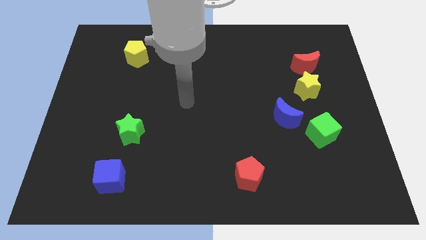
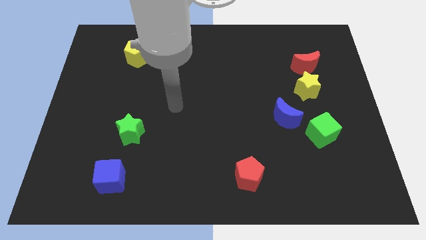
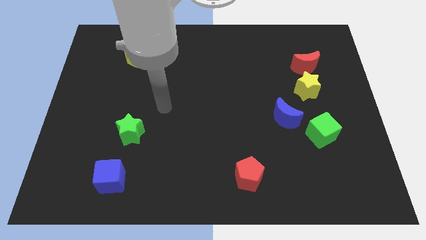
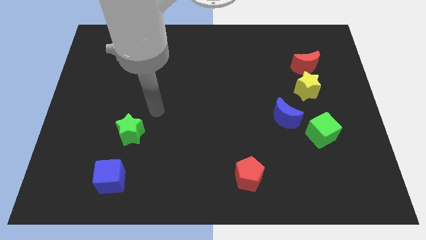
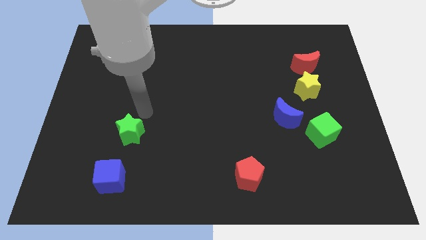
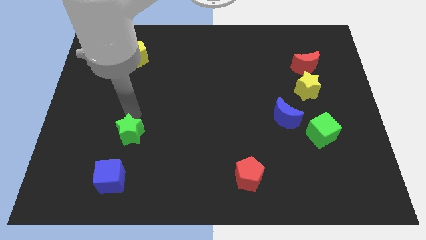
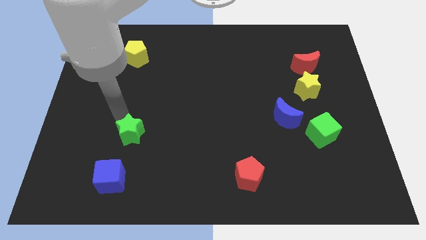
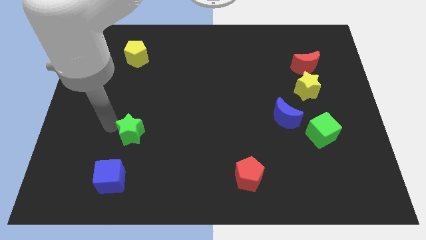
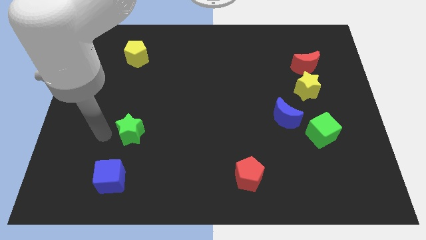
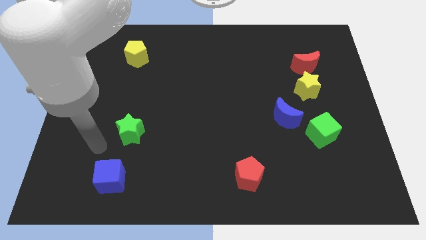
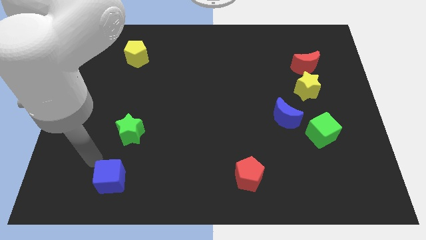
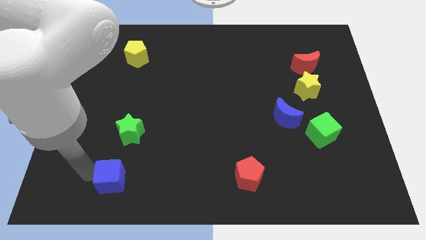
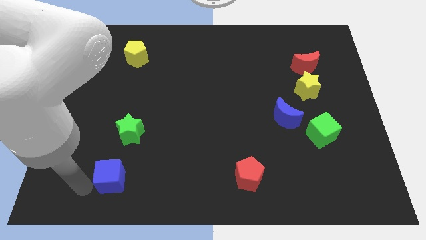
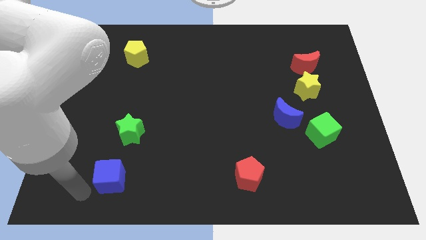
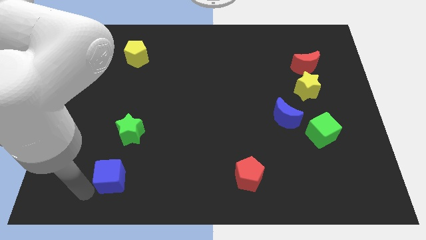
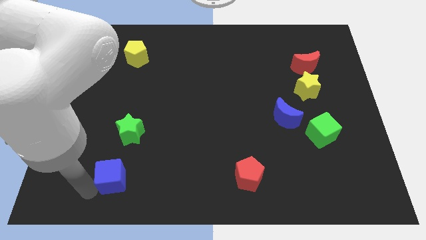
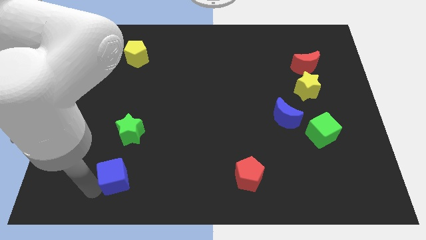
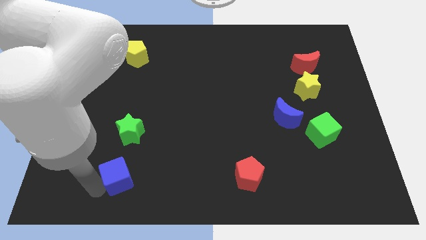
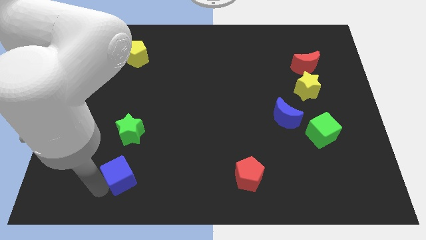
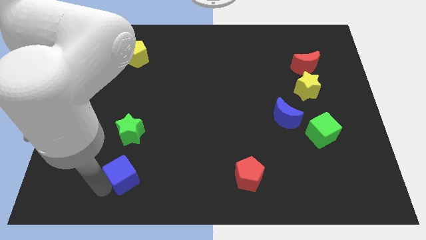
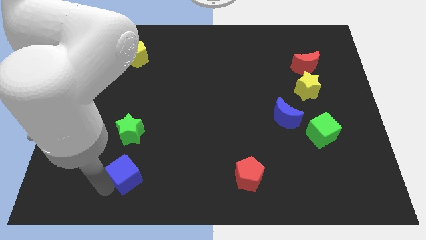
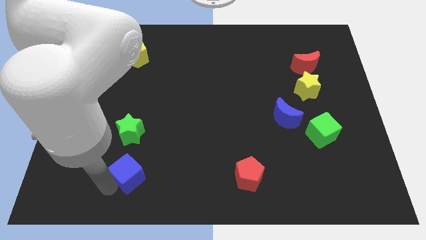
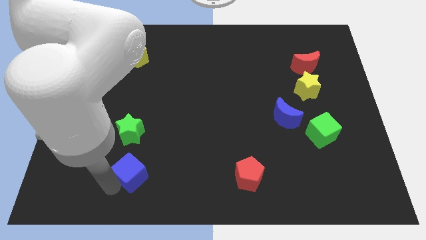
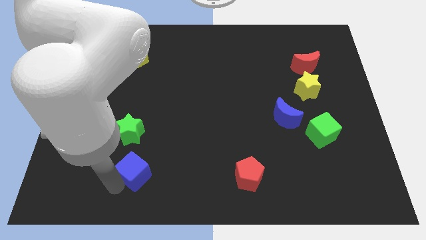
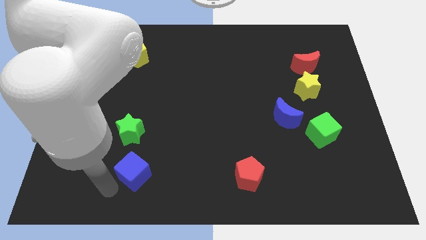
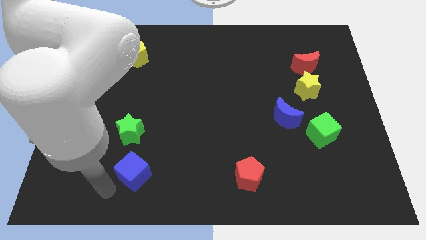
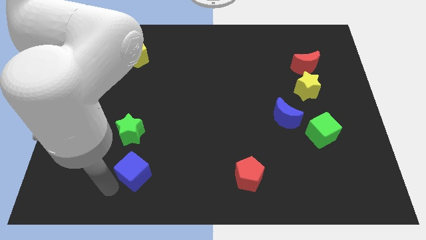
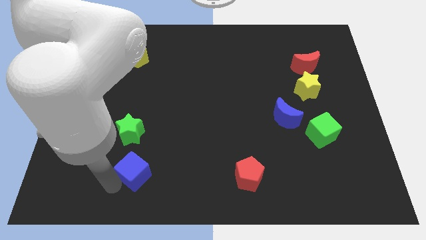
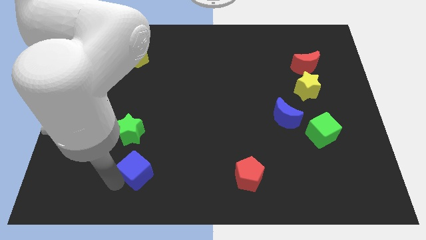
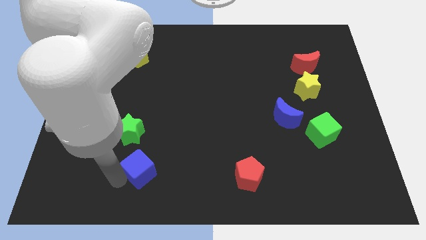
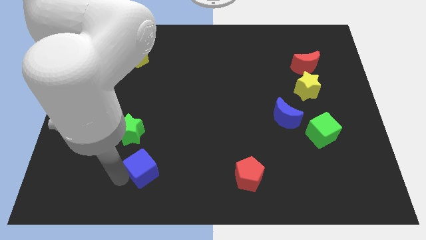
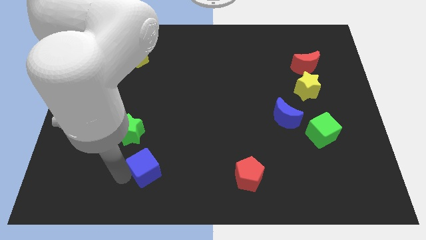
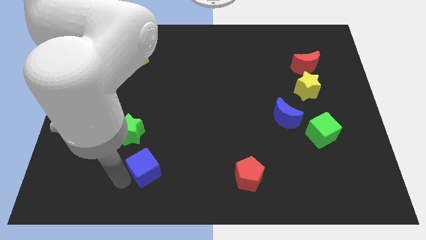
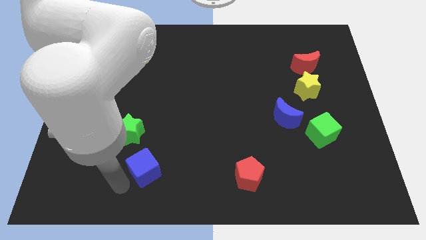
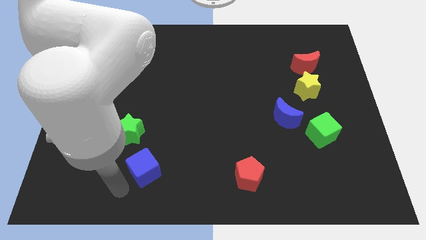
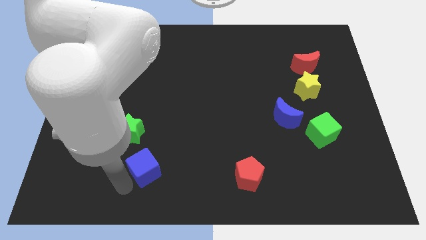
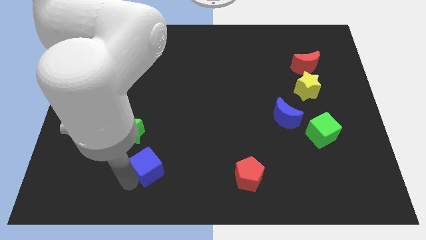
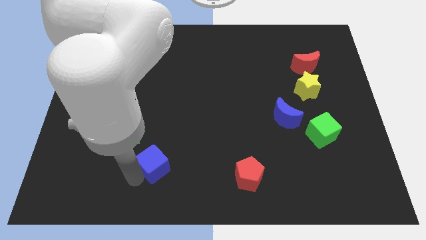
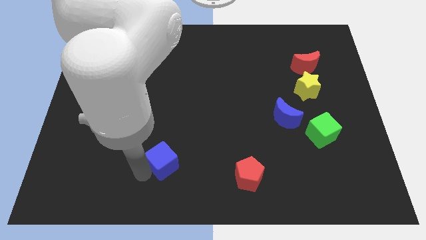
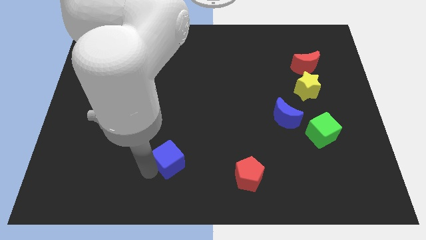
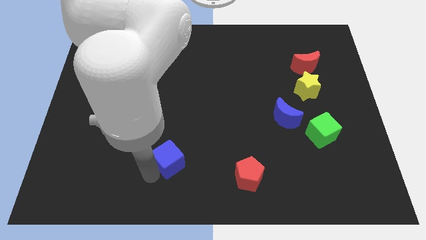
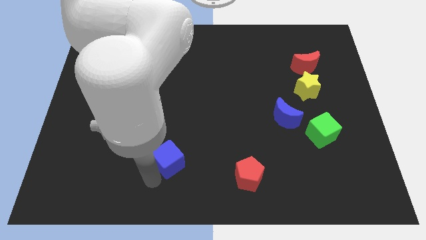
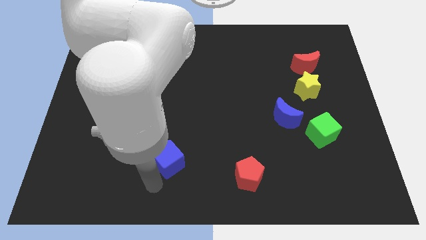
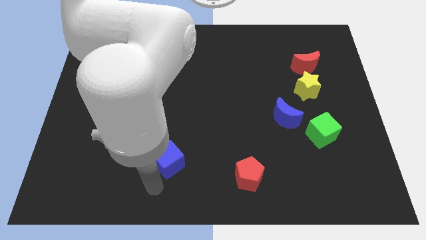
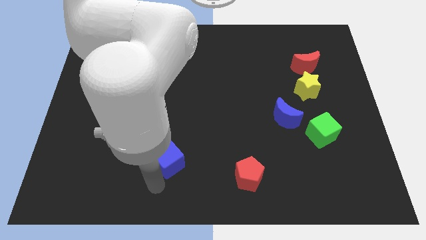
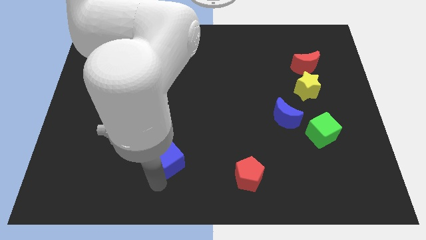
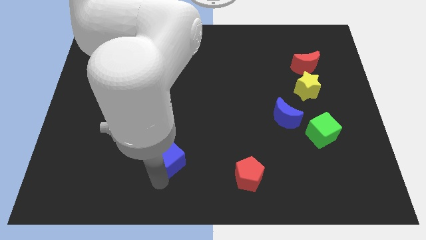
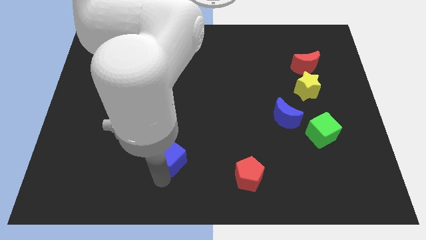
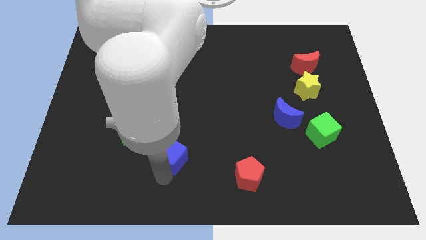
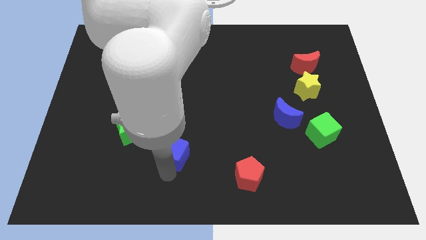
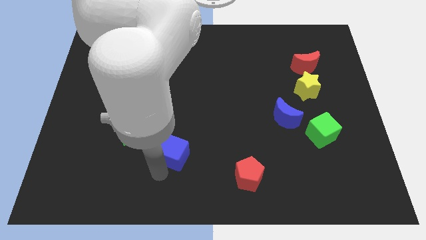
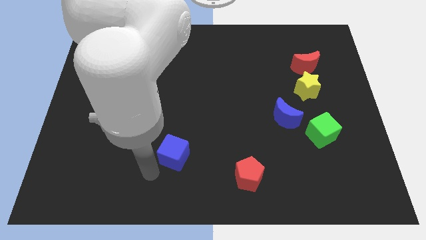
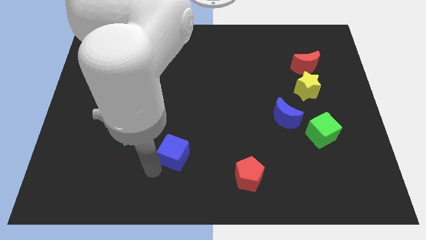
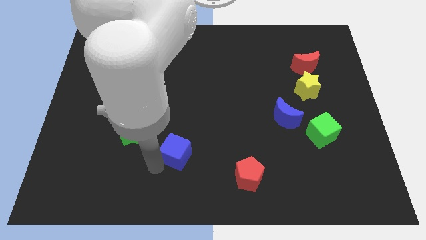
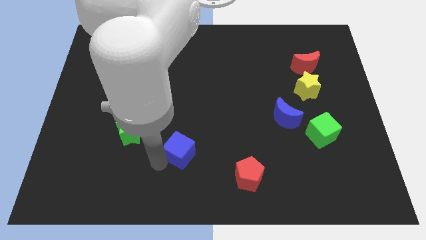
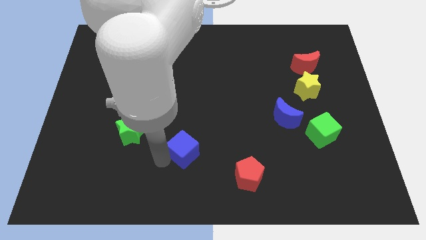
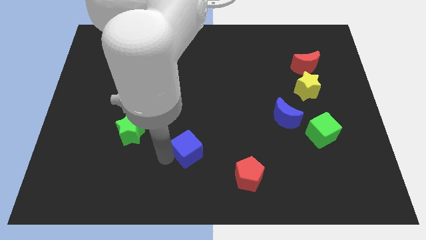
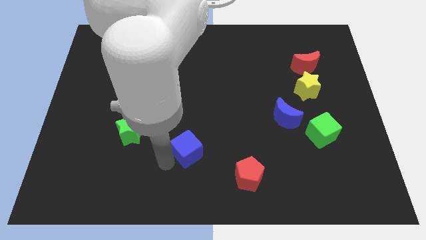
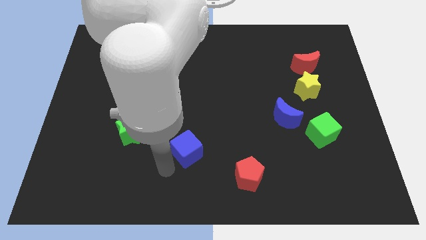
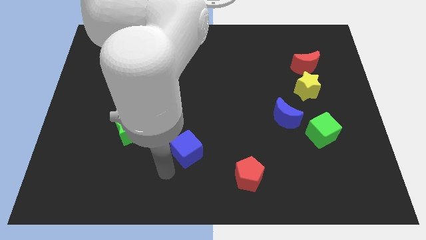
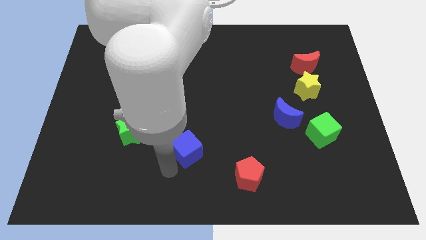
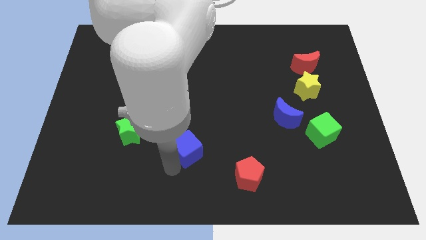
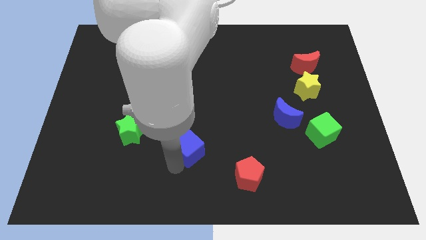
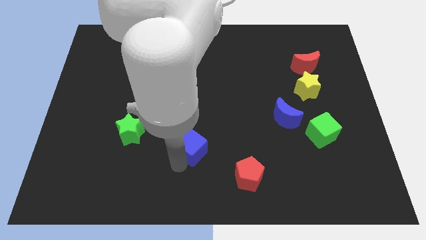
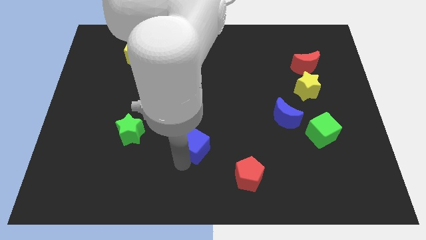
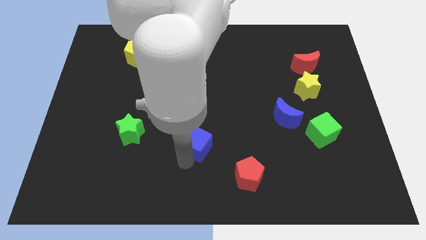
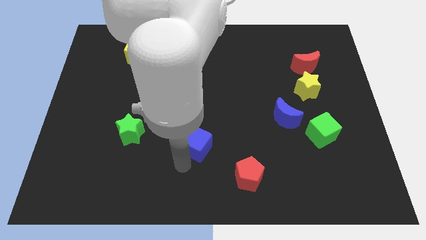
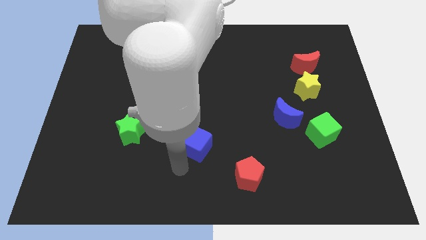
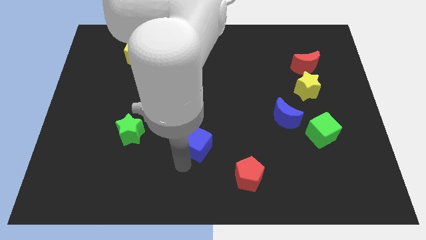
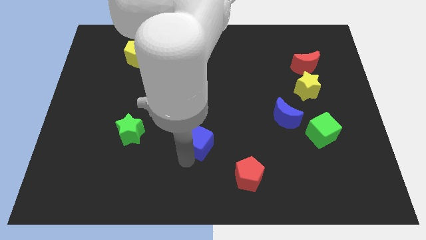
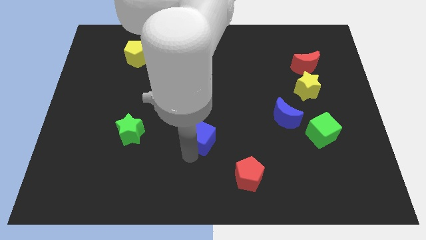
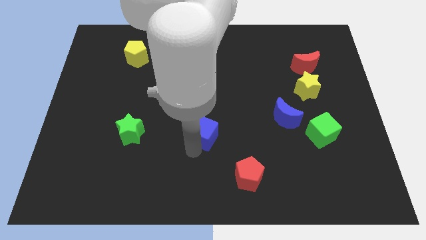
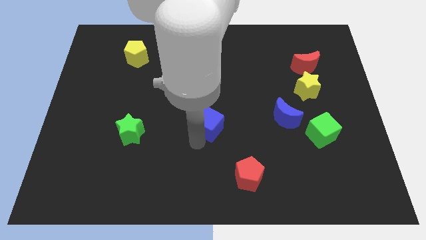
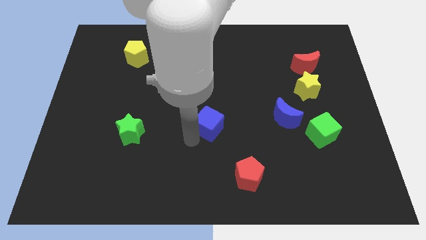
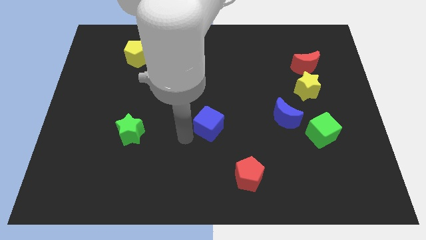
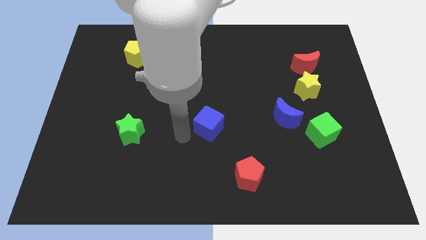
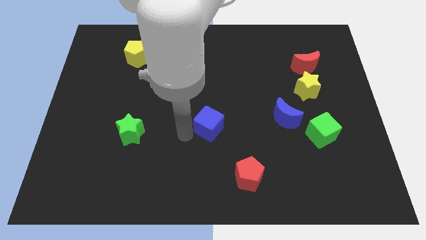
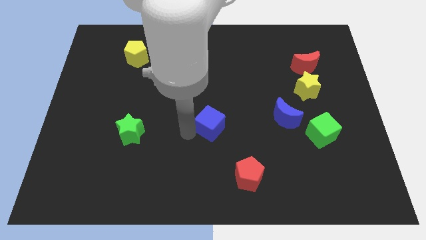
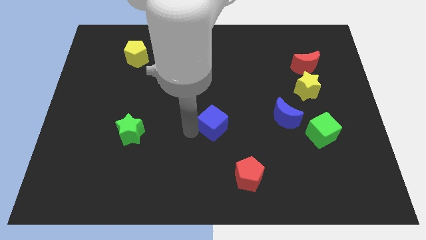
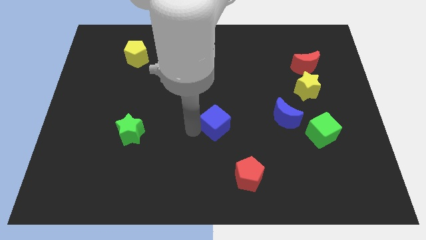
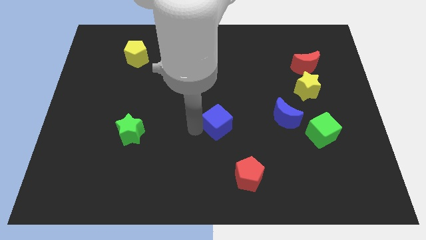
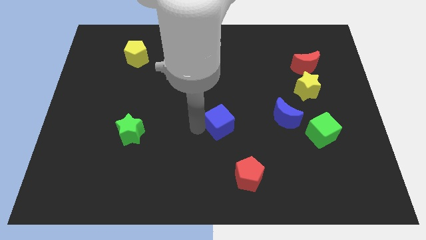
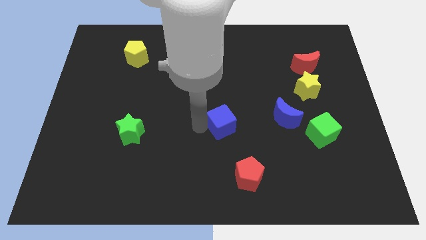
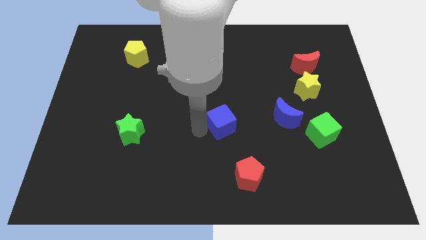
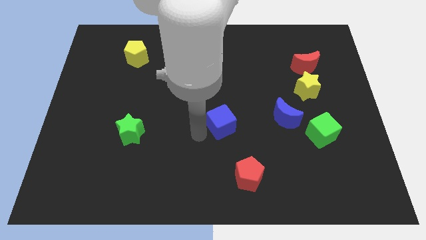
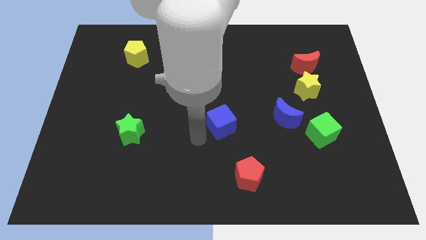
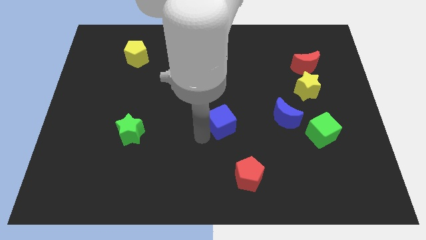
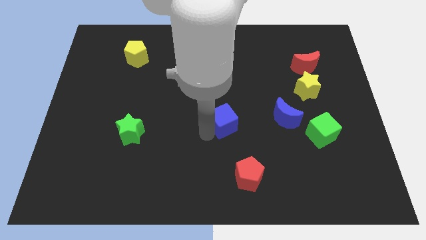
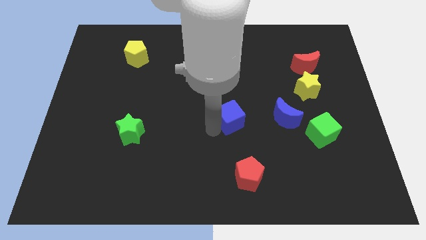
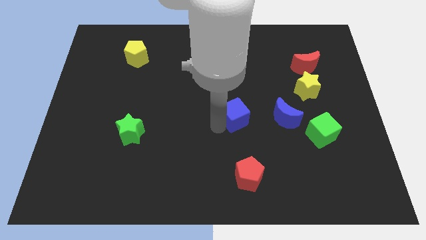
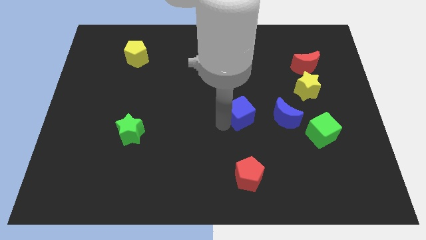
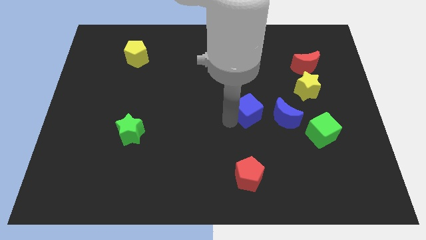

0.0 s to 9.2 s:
push the blue cube to the top left side of the blue moon
